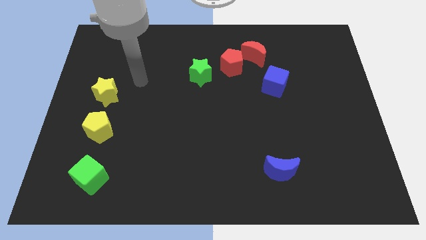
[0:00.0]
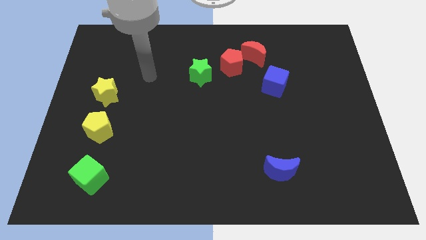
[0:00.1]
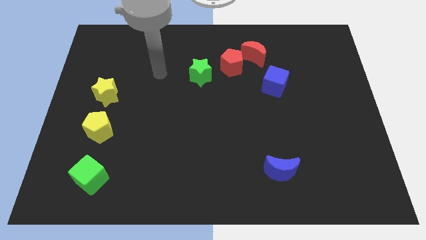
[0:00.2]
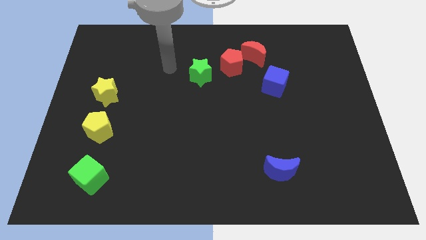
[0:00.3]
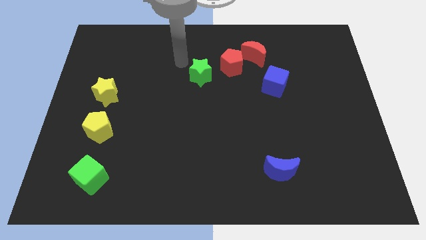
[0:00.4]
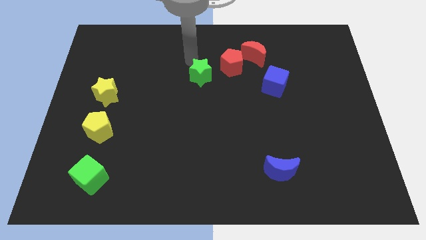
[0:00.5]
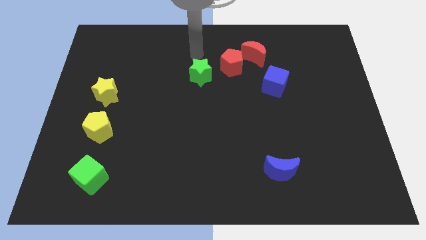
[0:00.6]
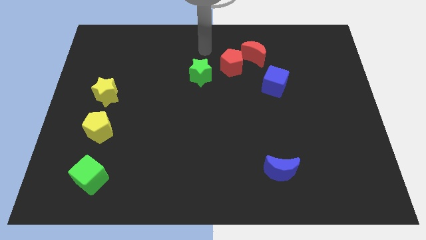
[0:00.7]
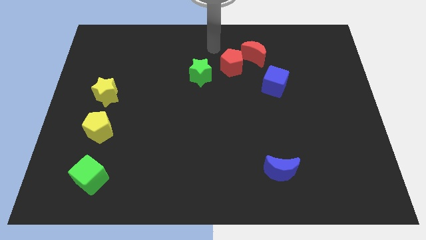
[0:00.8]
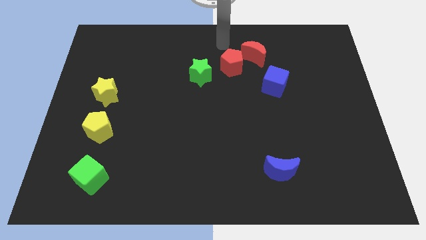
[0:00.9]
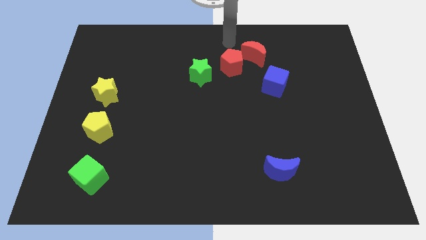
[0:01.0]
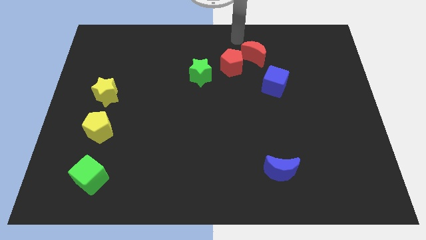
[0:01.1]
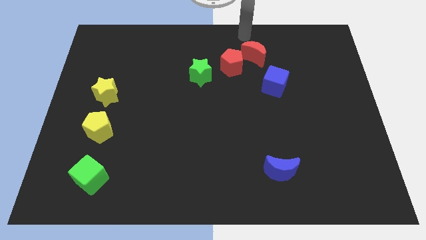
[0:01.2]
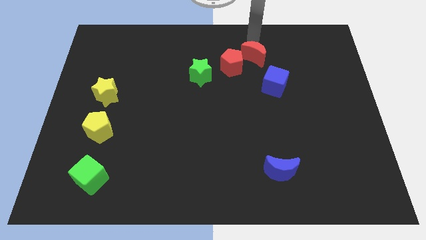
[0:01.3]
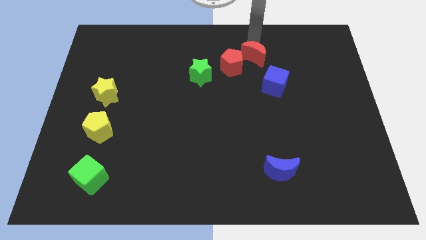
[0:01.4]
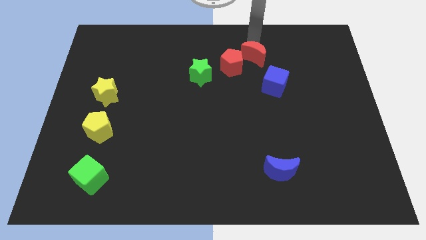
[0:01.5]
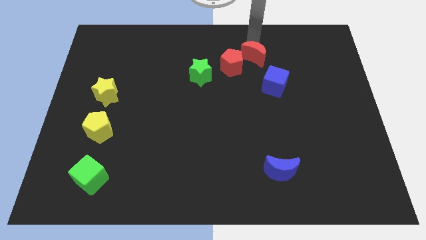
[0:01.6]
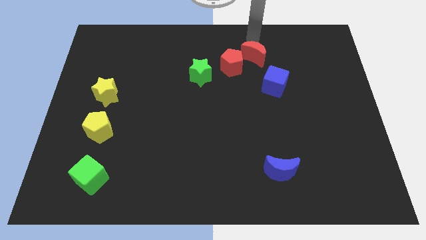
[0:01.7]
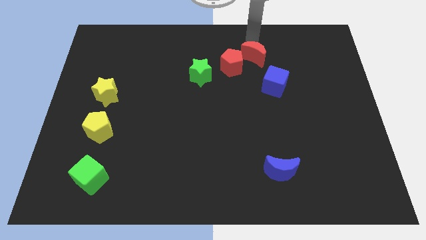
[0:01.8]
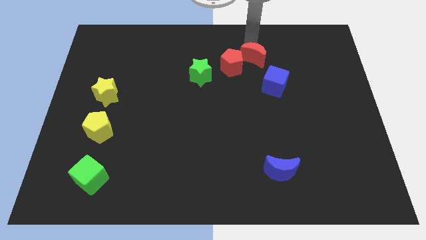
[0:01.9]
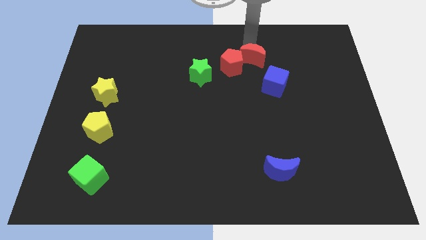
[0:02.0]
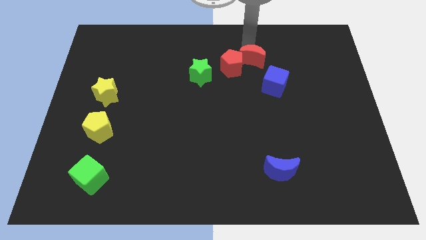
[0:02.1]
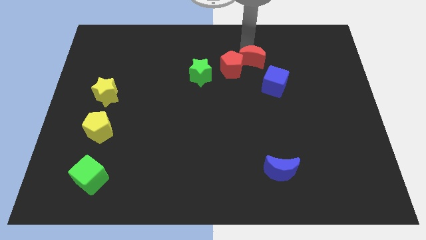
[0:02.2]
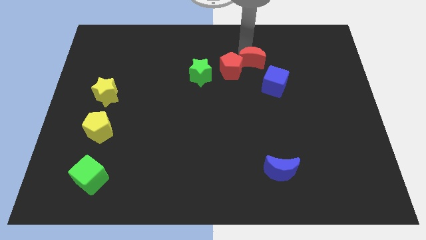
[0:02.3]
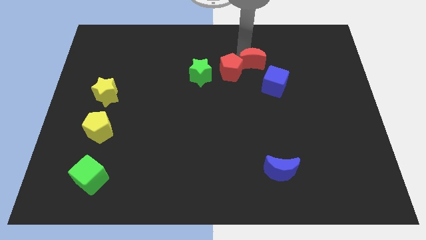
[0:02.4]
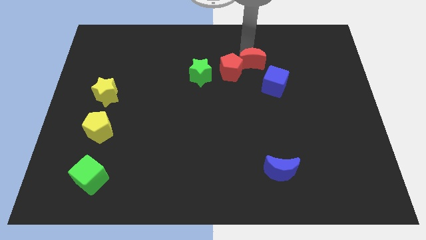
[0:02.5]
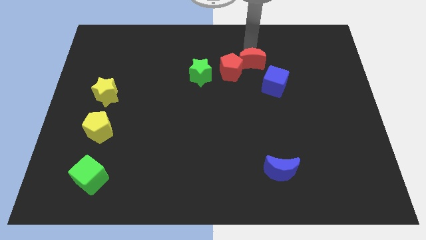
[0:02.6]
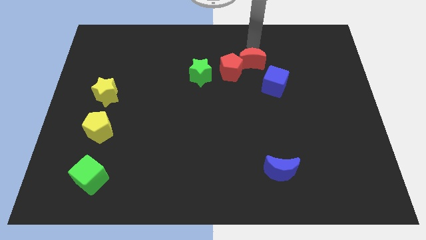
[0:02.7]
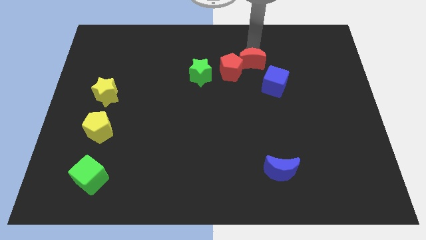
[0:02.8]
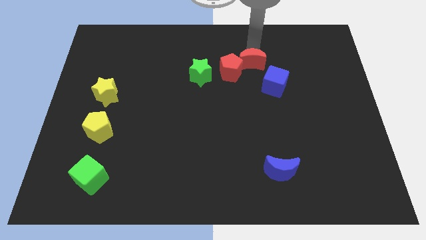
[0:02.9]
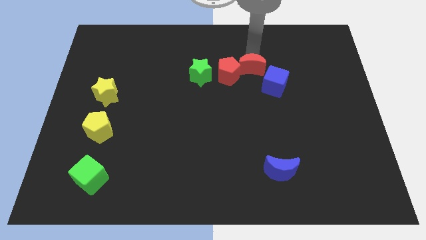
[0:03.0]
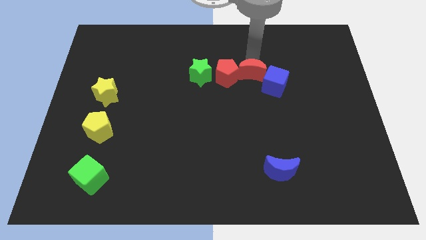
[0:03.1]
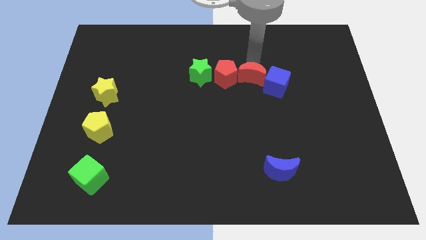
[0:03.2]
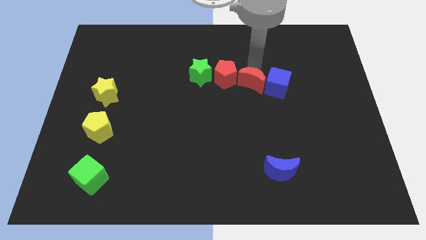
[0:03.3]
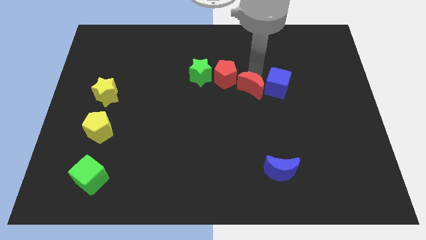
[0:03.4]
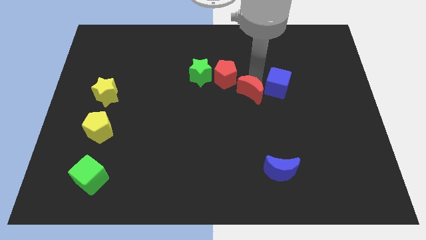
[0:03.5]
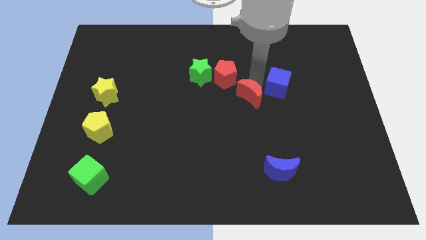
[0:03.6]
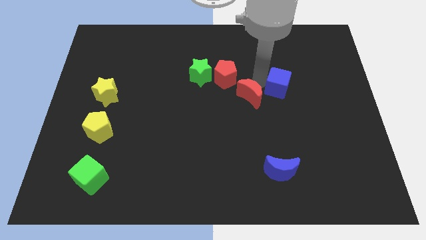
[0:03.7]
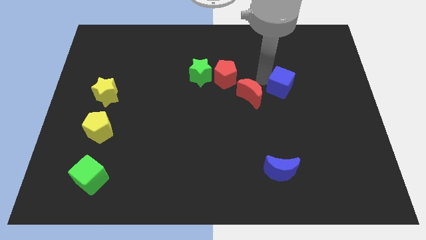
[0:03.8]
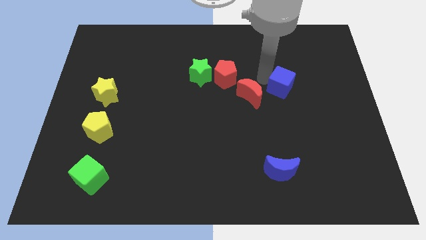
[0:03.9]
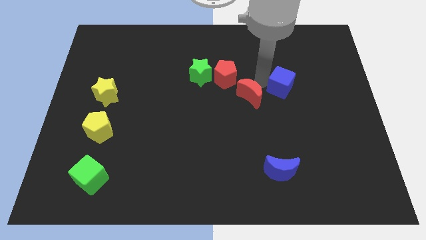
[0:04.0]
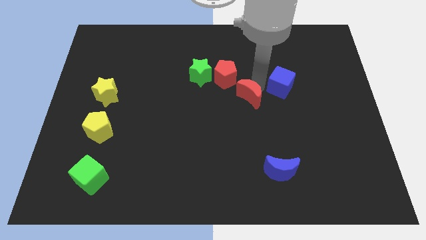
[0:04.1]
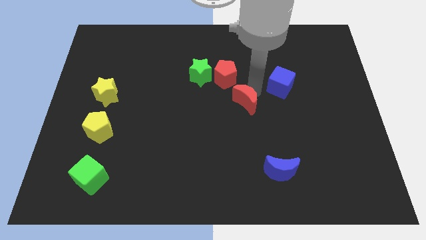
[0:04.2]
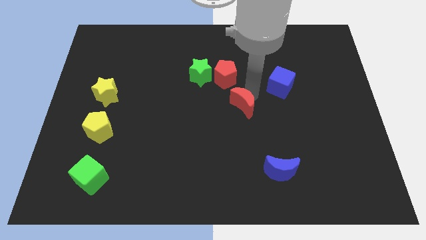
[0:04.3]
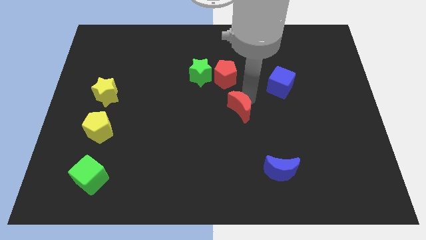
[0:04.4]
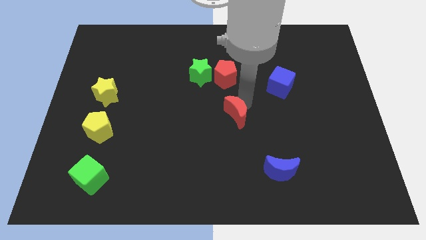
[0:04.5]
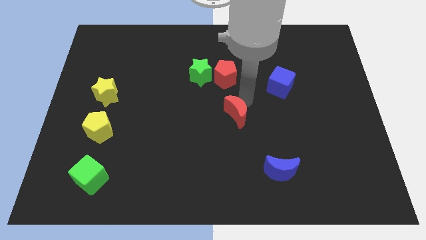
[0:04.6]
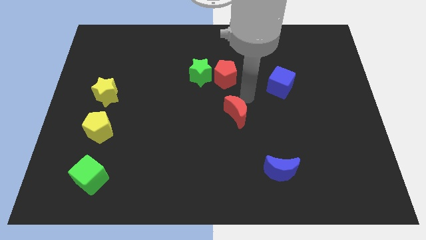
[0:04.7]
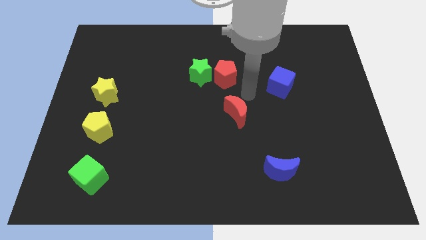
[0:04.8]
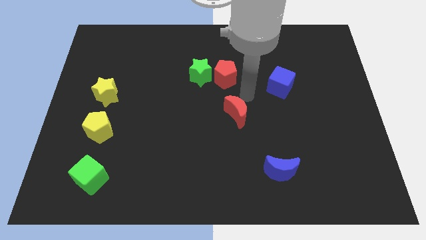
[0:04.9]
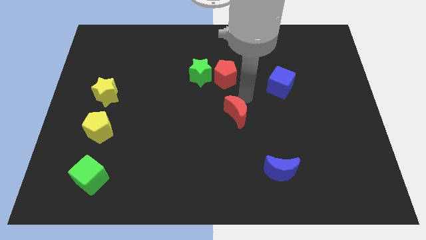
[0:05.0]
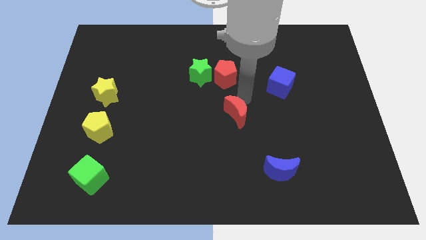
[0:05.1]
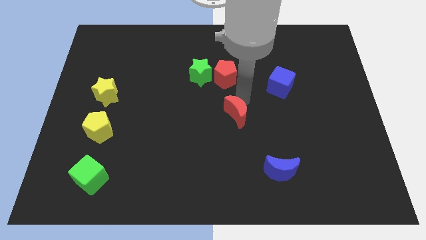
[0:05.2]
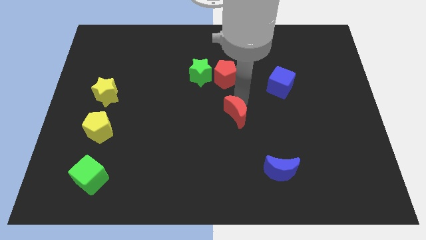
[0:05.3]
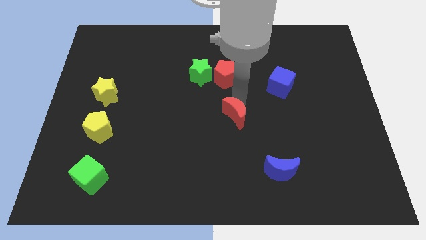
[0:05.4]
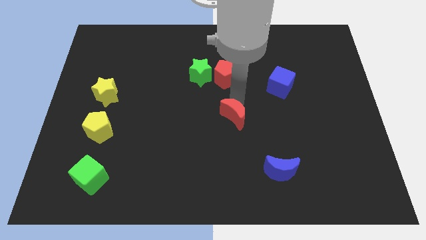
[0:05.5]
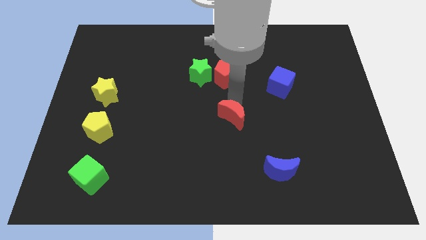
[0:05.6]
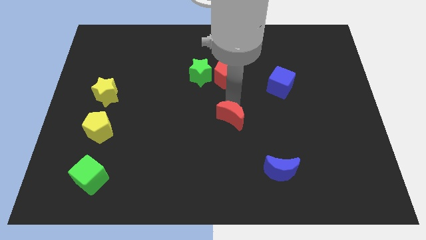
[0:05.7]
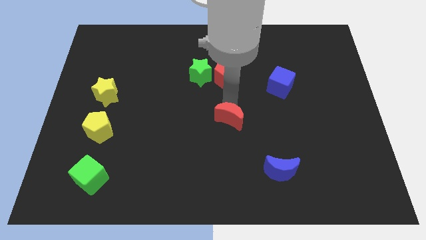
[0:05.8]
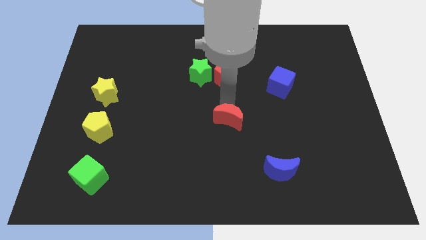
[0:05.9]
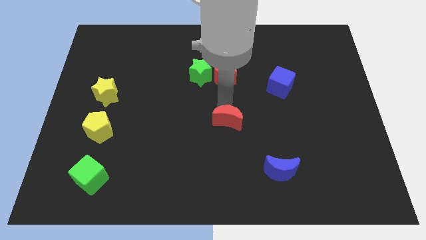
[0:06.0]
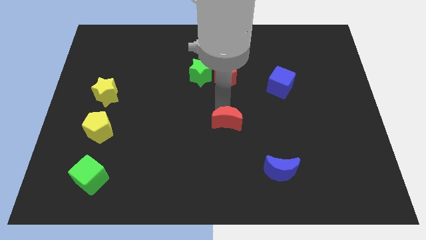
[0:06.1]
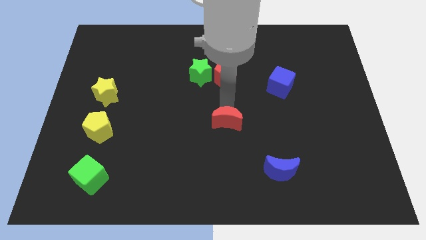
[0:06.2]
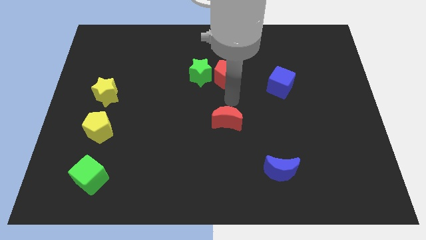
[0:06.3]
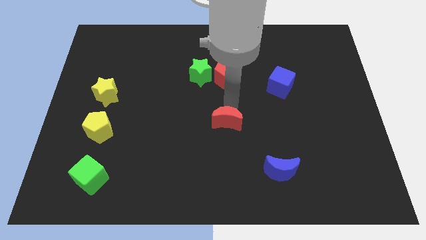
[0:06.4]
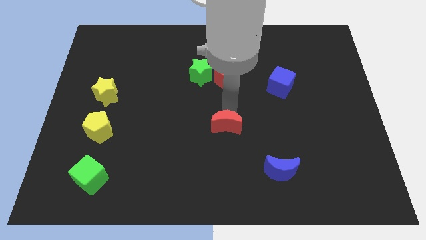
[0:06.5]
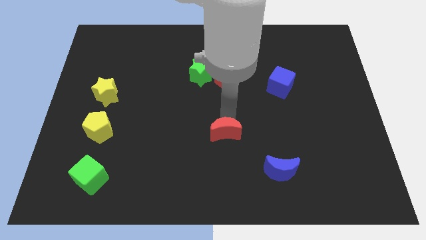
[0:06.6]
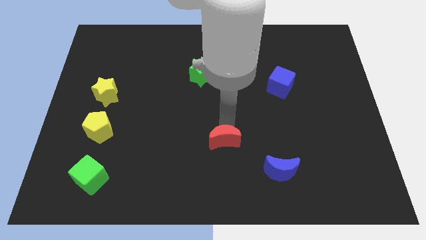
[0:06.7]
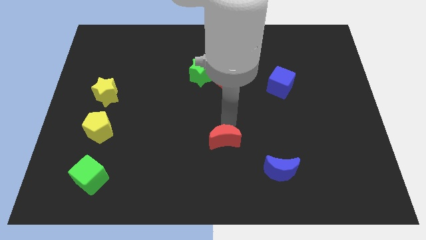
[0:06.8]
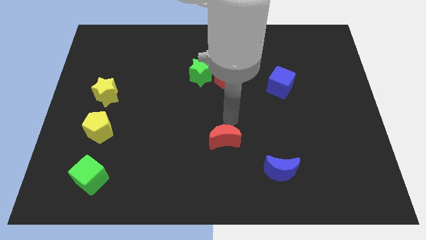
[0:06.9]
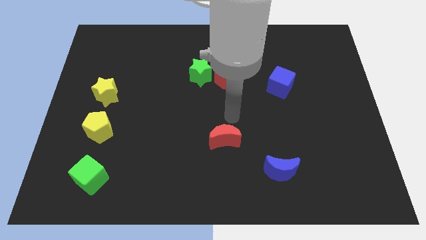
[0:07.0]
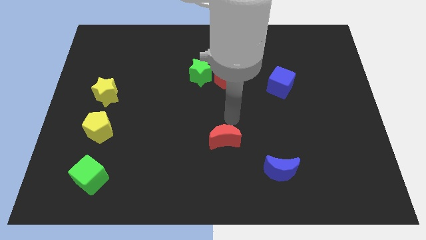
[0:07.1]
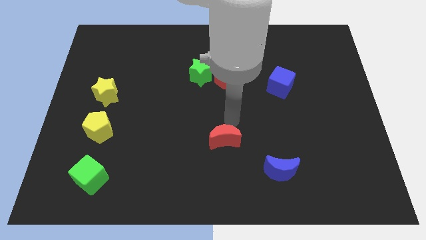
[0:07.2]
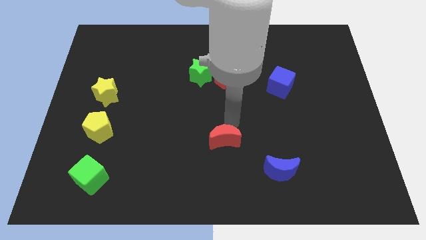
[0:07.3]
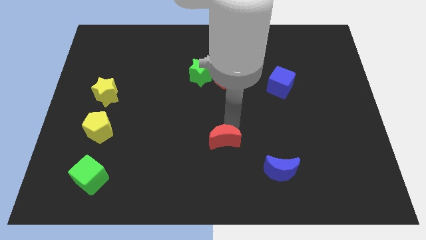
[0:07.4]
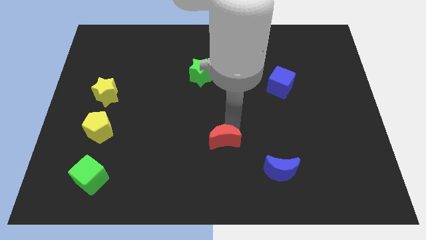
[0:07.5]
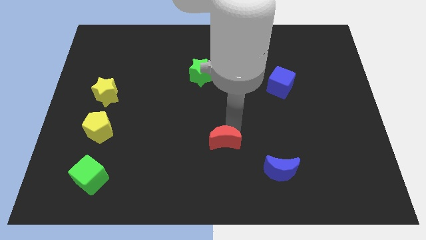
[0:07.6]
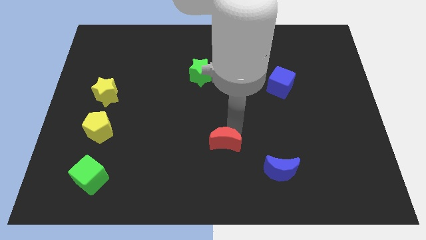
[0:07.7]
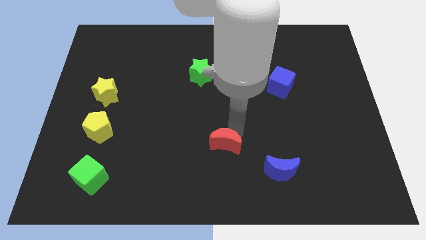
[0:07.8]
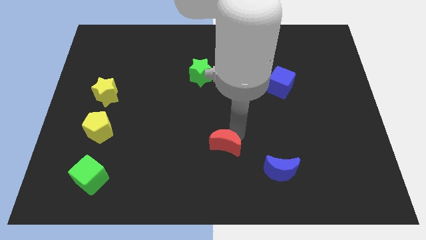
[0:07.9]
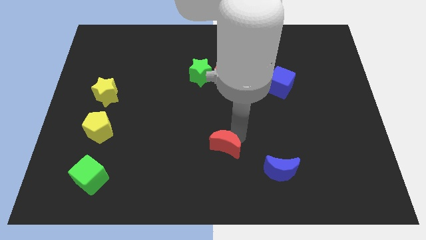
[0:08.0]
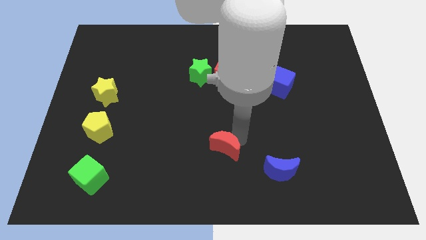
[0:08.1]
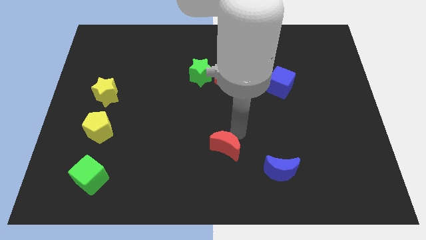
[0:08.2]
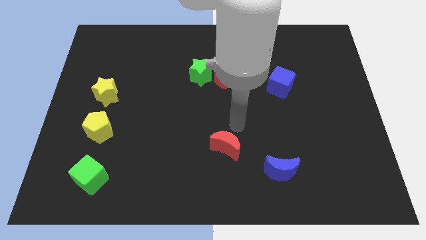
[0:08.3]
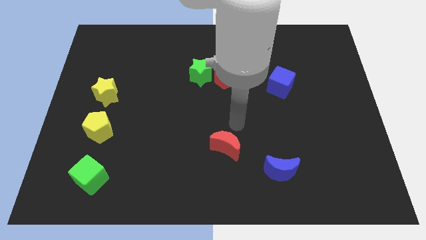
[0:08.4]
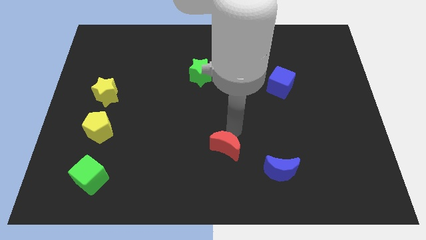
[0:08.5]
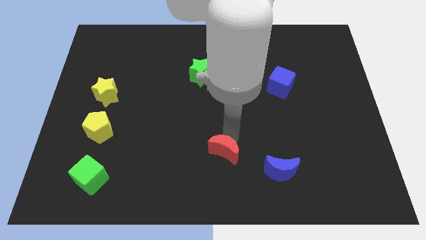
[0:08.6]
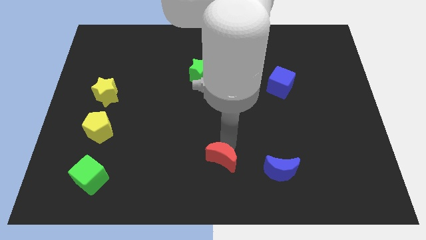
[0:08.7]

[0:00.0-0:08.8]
push the red moon to the bottom
